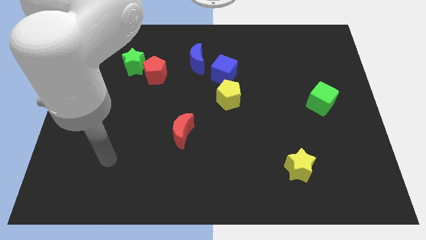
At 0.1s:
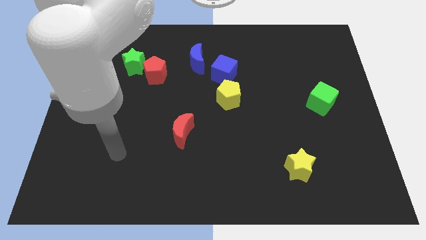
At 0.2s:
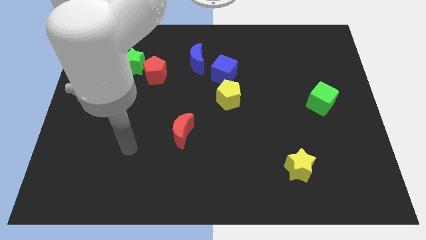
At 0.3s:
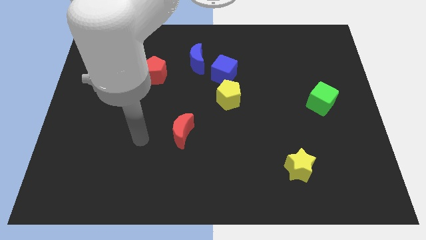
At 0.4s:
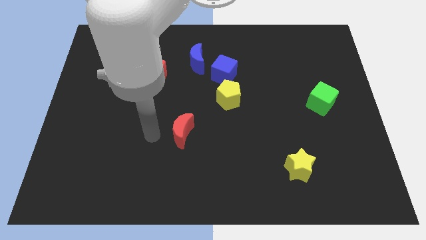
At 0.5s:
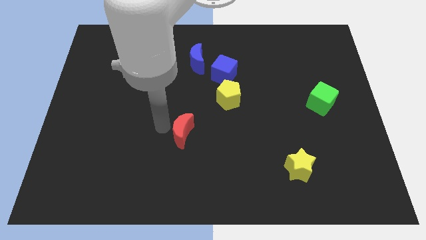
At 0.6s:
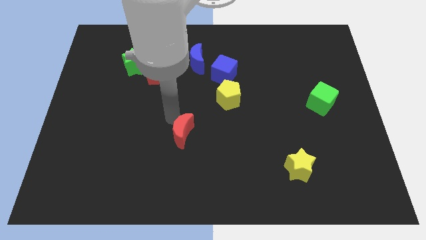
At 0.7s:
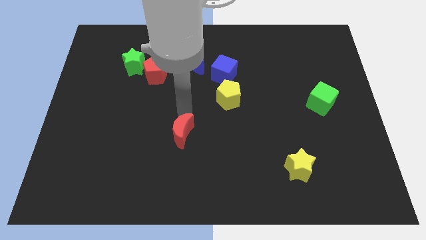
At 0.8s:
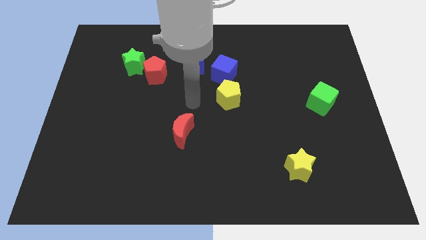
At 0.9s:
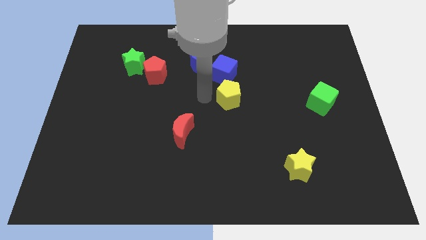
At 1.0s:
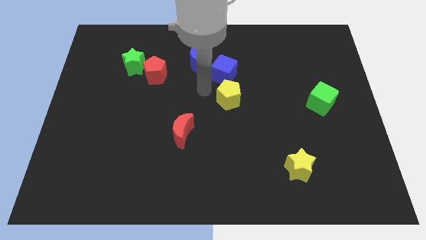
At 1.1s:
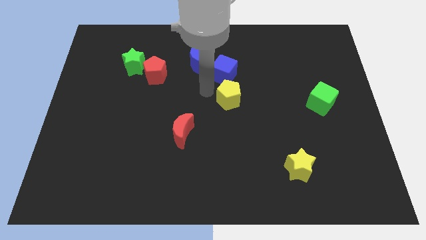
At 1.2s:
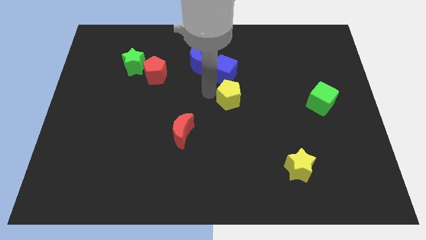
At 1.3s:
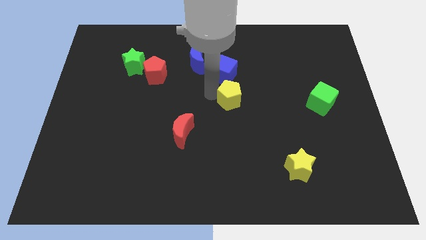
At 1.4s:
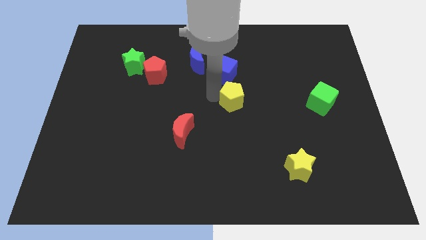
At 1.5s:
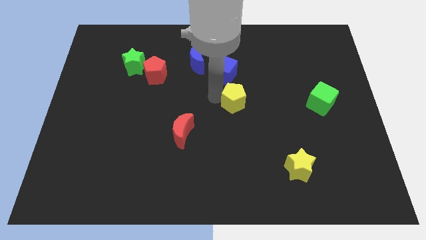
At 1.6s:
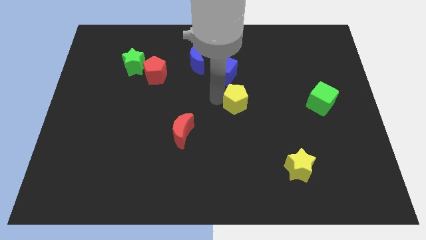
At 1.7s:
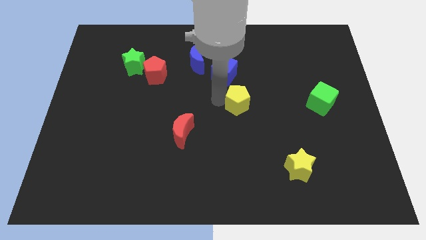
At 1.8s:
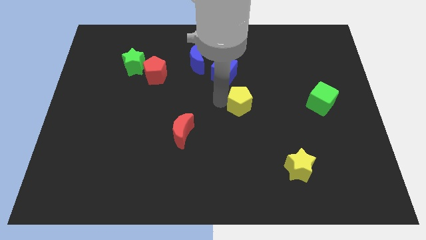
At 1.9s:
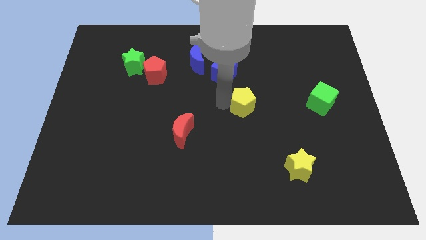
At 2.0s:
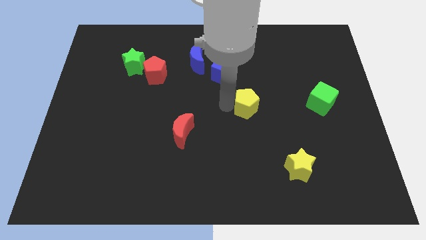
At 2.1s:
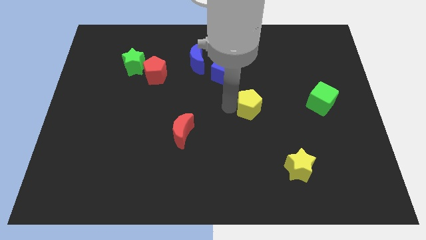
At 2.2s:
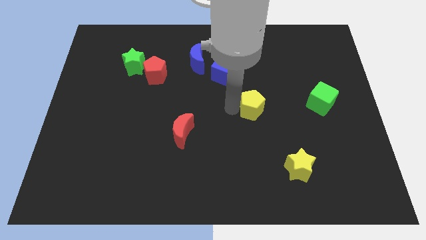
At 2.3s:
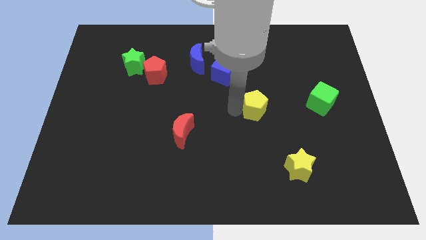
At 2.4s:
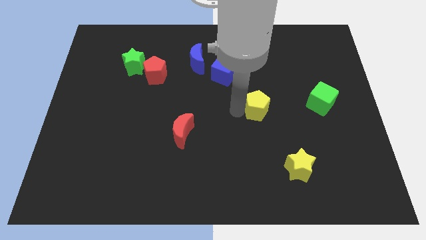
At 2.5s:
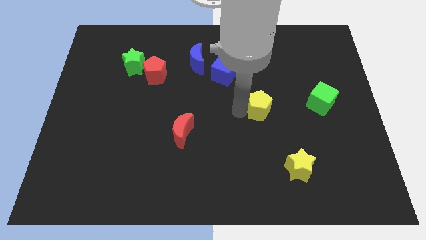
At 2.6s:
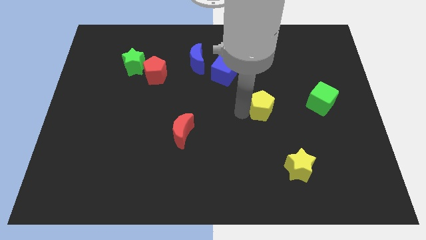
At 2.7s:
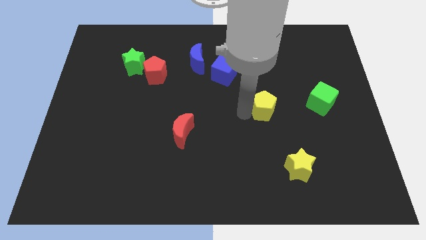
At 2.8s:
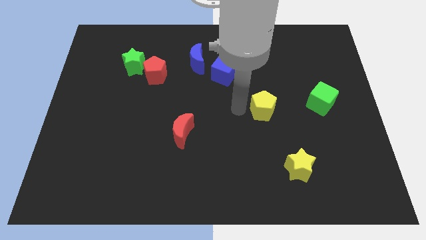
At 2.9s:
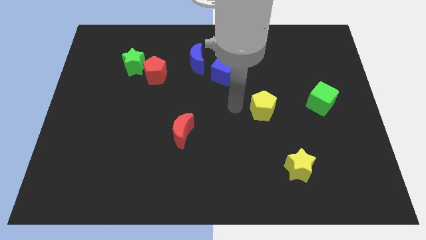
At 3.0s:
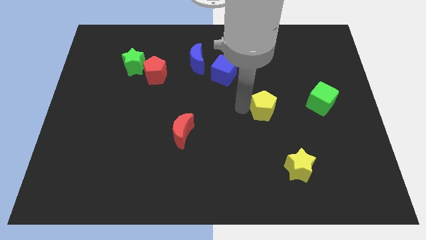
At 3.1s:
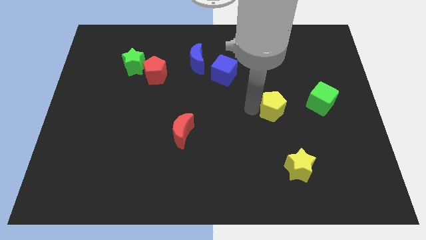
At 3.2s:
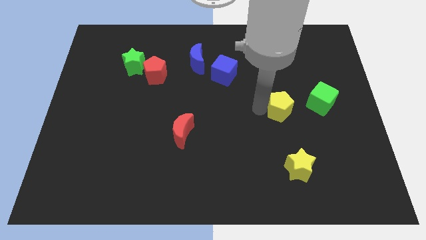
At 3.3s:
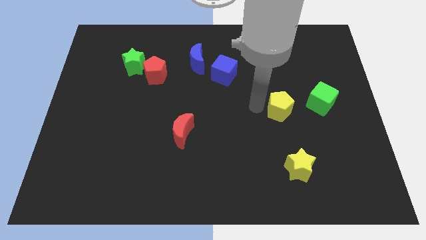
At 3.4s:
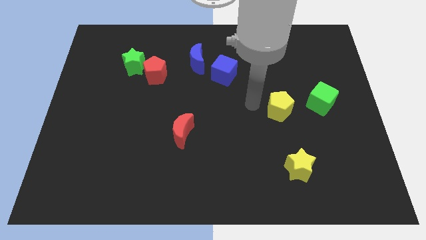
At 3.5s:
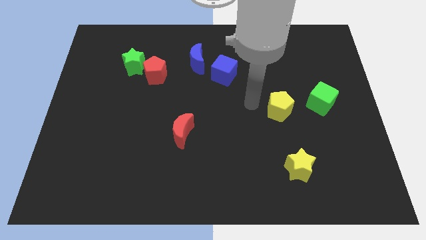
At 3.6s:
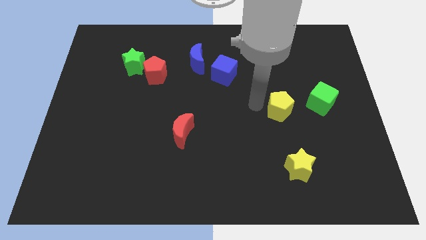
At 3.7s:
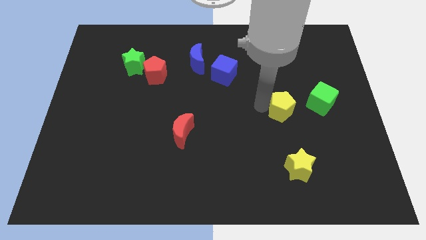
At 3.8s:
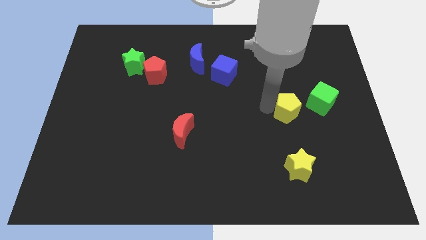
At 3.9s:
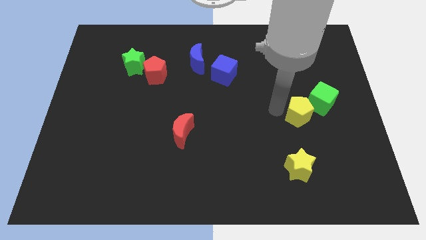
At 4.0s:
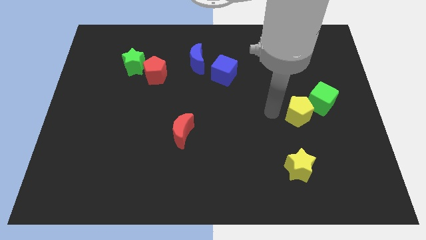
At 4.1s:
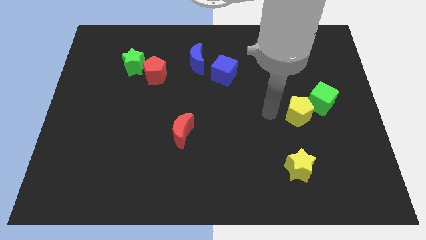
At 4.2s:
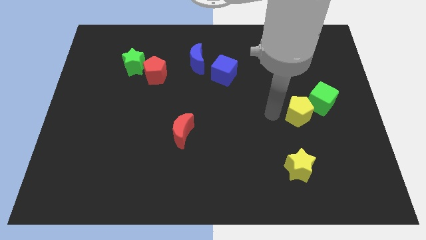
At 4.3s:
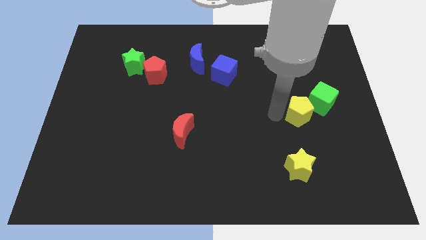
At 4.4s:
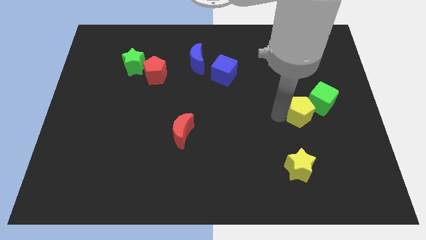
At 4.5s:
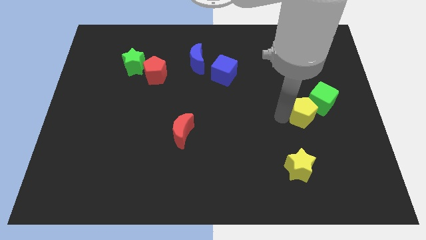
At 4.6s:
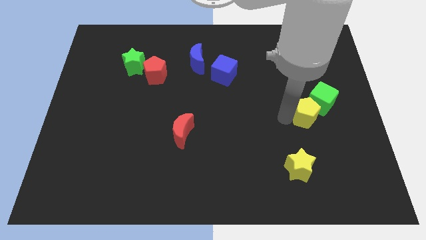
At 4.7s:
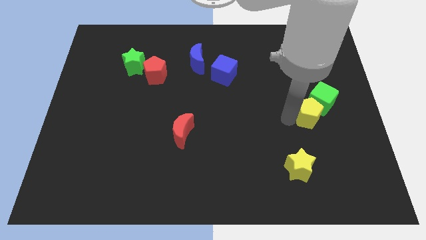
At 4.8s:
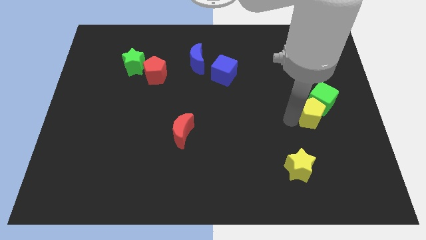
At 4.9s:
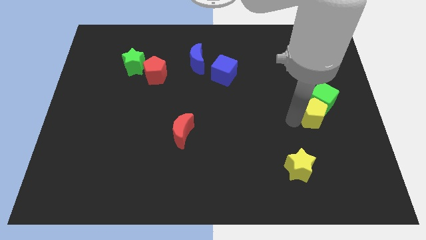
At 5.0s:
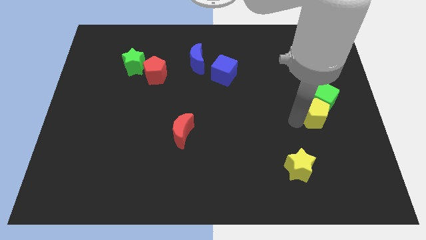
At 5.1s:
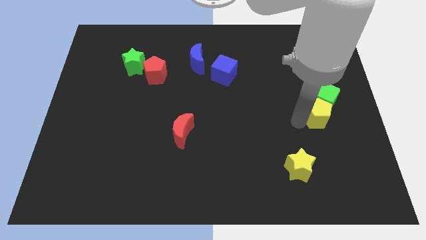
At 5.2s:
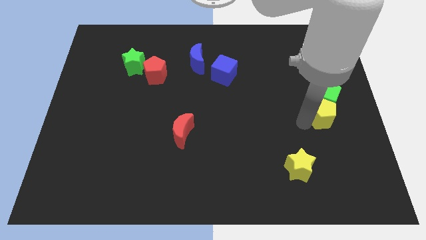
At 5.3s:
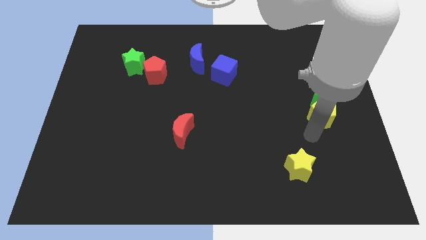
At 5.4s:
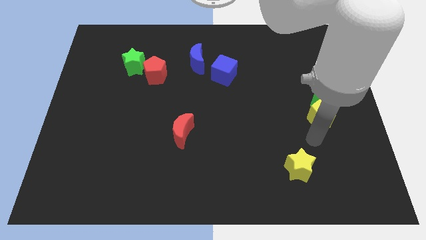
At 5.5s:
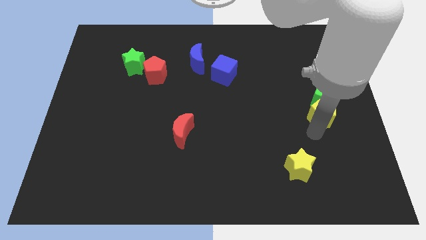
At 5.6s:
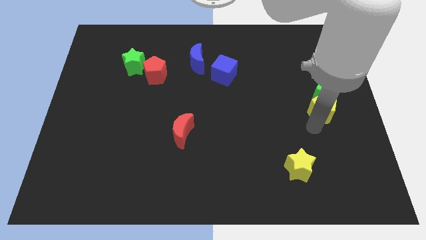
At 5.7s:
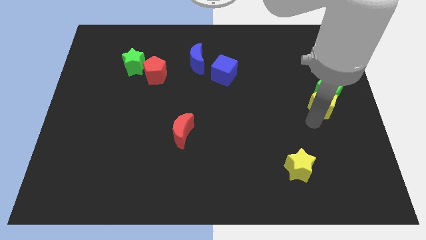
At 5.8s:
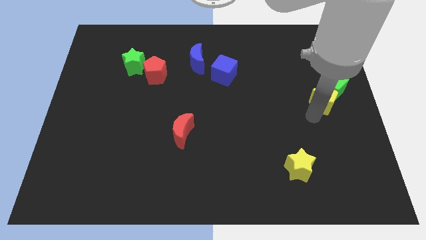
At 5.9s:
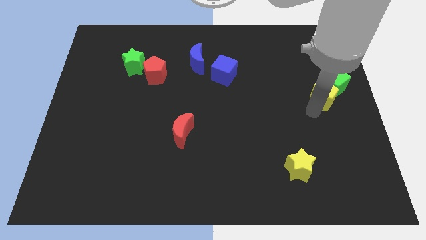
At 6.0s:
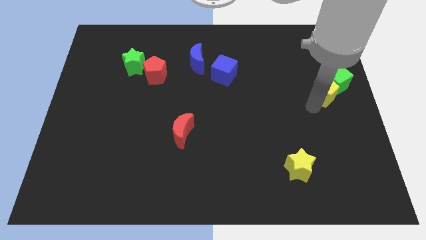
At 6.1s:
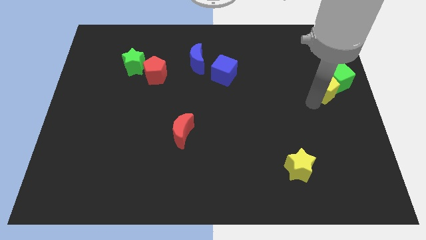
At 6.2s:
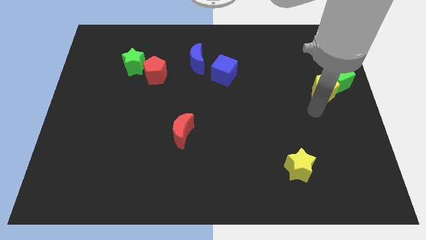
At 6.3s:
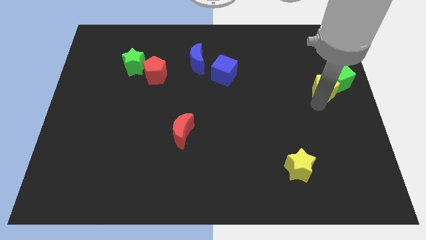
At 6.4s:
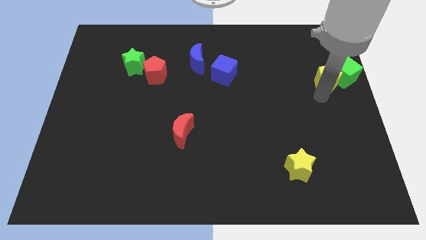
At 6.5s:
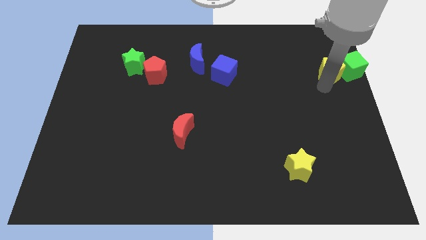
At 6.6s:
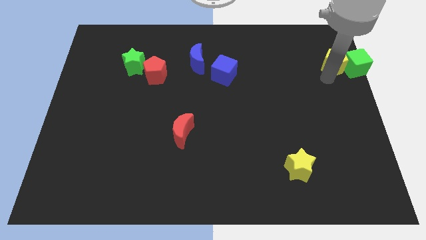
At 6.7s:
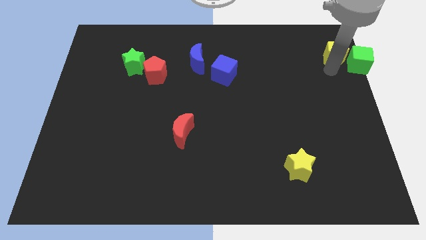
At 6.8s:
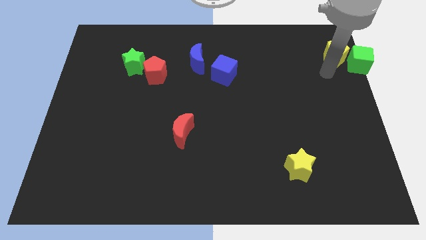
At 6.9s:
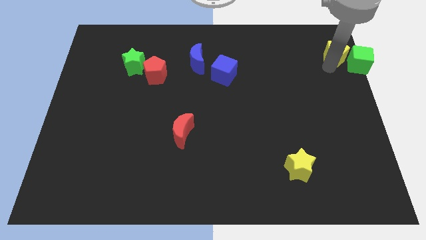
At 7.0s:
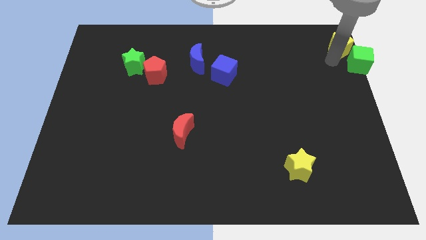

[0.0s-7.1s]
move the yellow pentagon to the top right of the board
